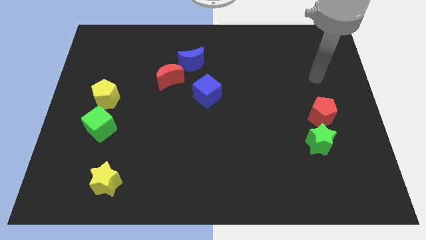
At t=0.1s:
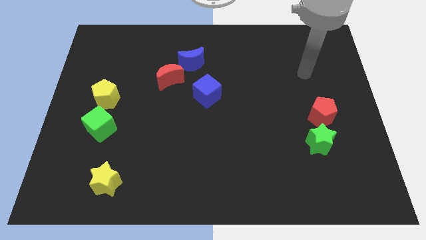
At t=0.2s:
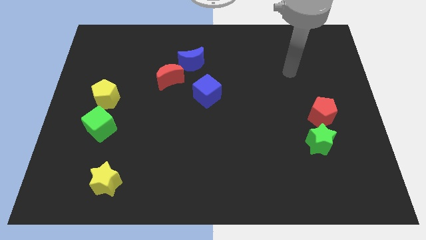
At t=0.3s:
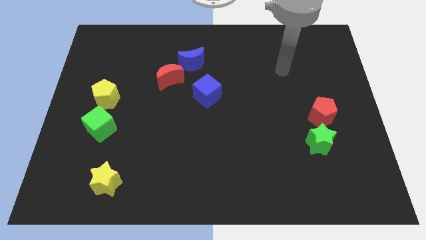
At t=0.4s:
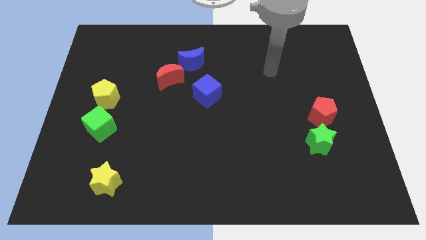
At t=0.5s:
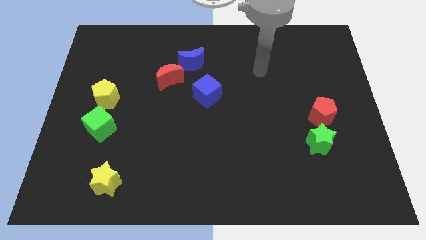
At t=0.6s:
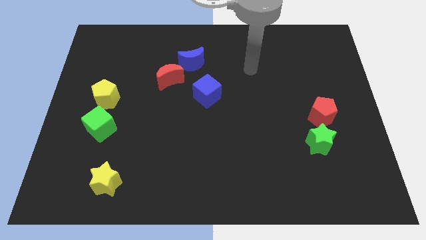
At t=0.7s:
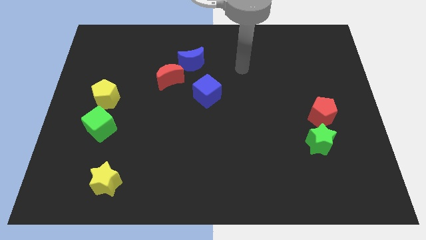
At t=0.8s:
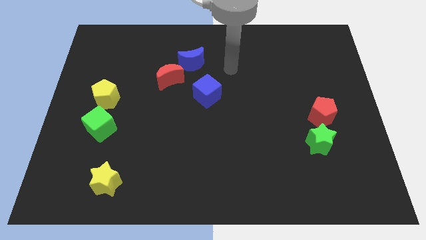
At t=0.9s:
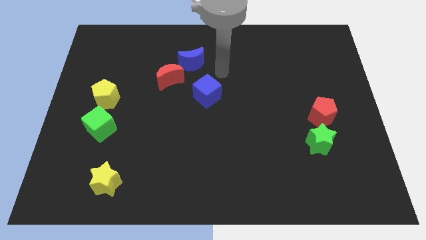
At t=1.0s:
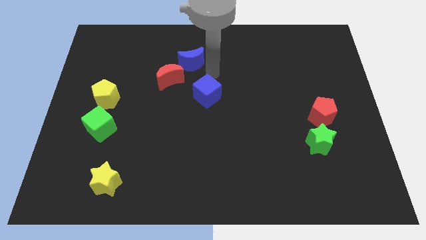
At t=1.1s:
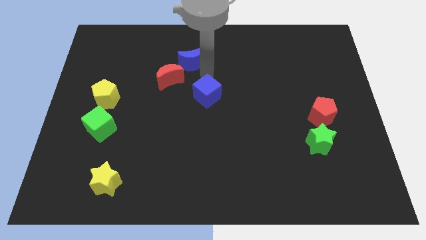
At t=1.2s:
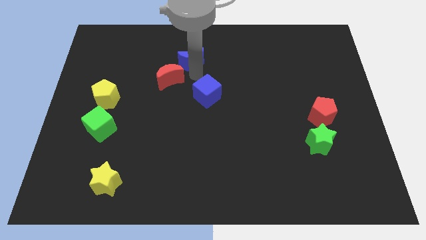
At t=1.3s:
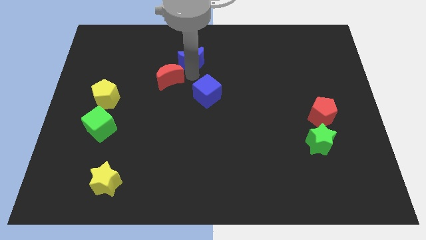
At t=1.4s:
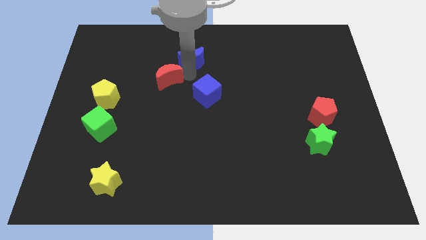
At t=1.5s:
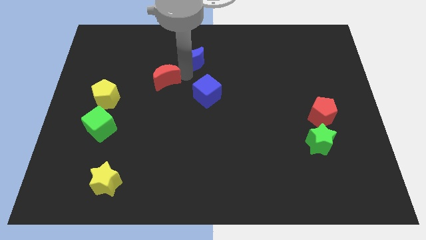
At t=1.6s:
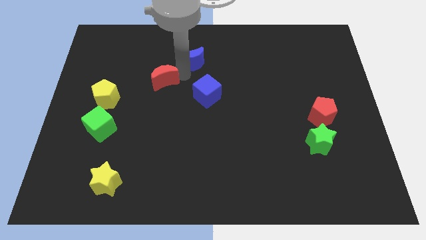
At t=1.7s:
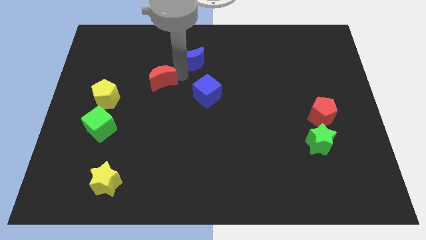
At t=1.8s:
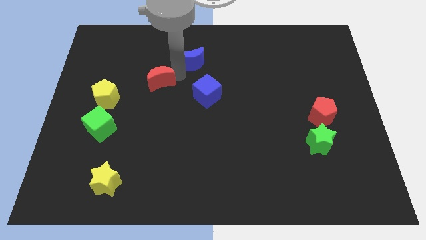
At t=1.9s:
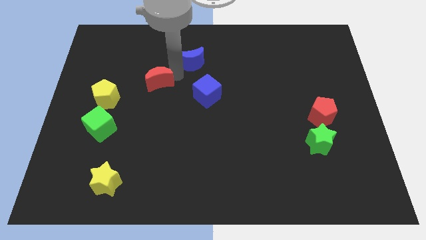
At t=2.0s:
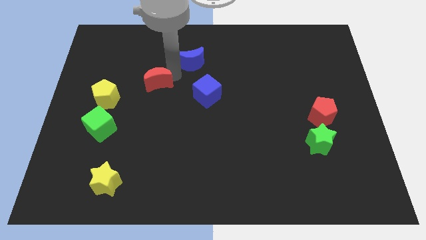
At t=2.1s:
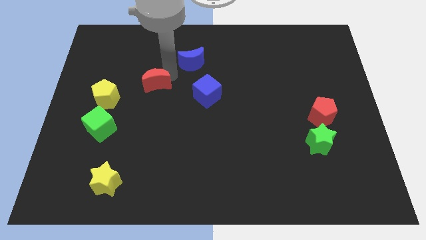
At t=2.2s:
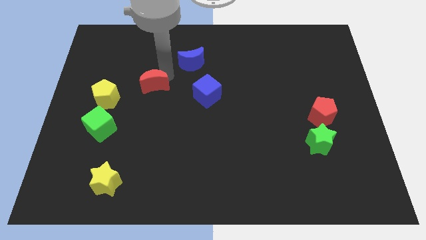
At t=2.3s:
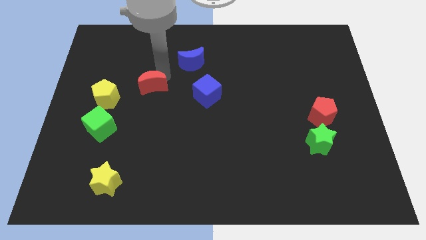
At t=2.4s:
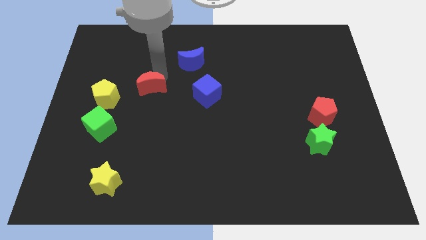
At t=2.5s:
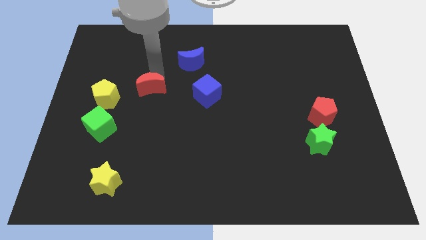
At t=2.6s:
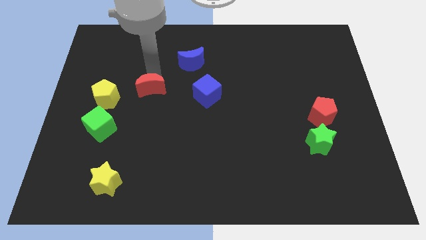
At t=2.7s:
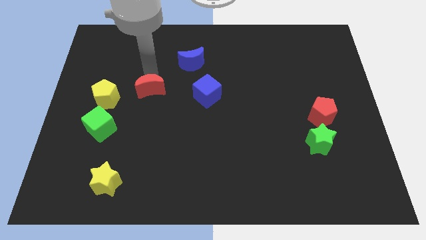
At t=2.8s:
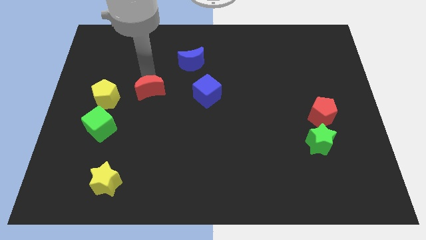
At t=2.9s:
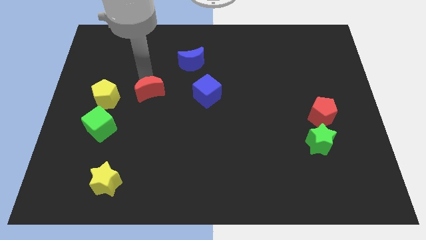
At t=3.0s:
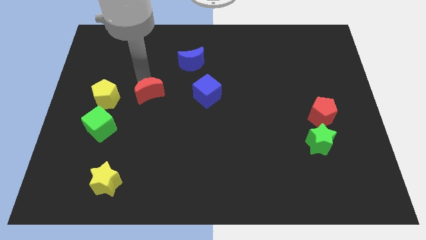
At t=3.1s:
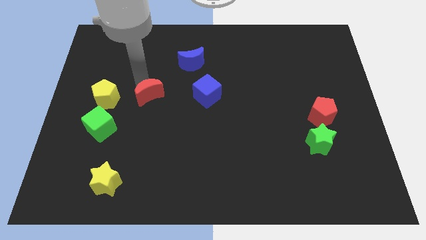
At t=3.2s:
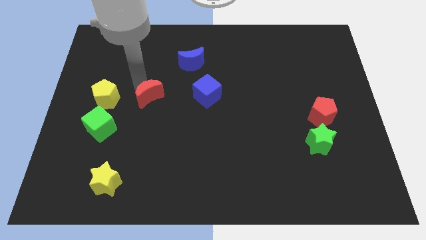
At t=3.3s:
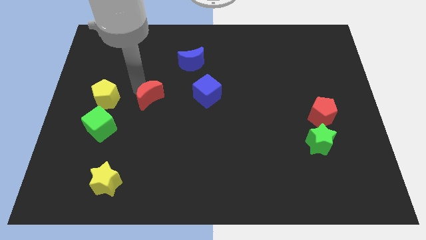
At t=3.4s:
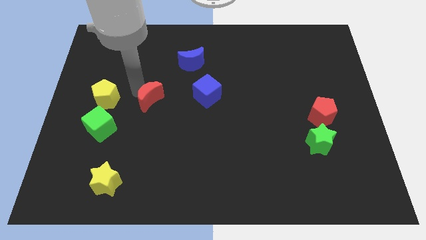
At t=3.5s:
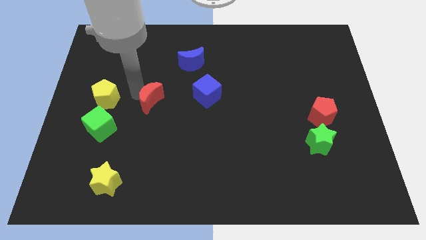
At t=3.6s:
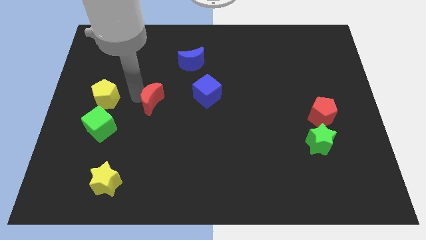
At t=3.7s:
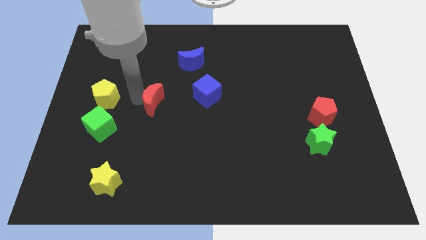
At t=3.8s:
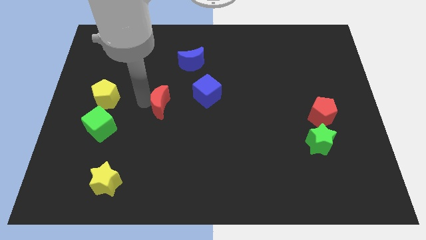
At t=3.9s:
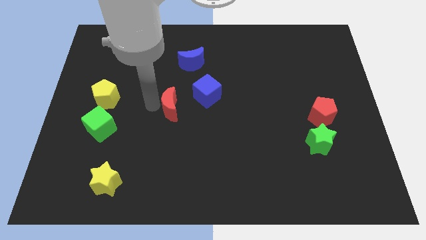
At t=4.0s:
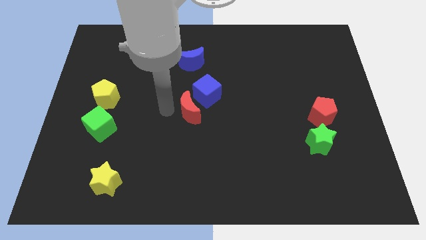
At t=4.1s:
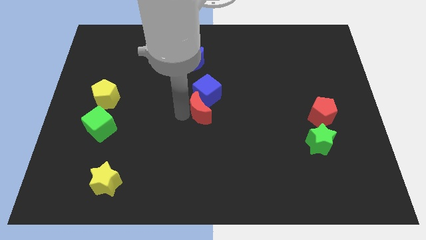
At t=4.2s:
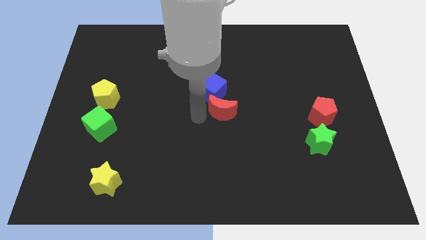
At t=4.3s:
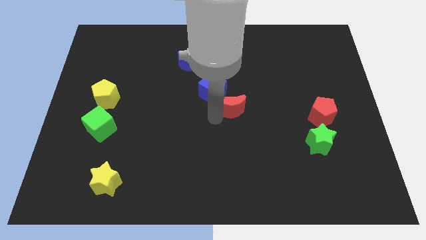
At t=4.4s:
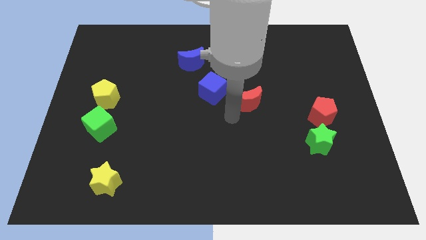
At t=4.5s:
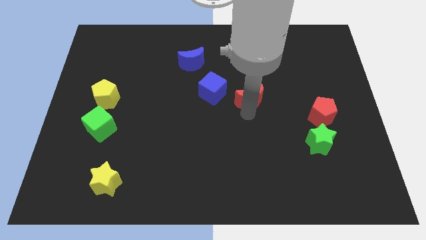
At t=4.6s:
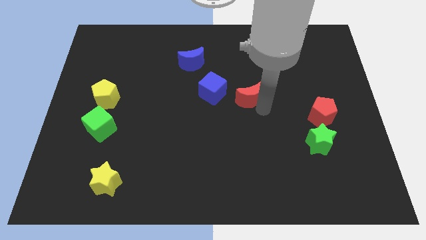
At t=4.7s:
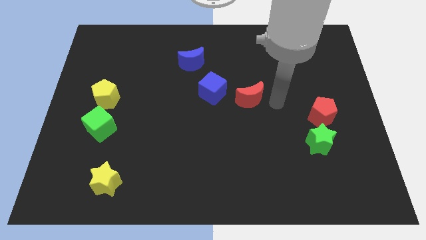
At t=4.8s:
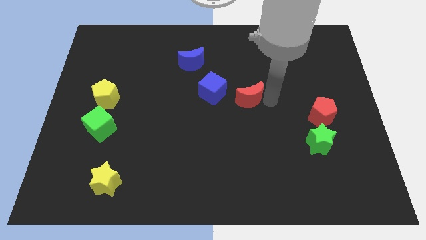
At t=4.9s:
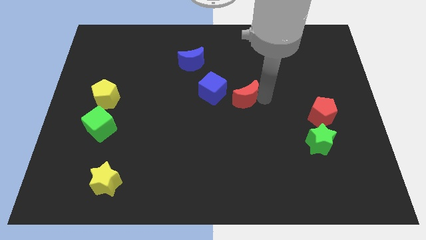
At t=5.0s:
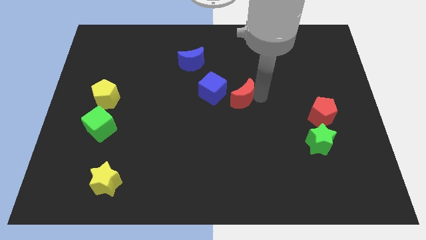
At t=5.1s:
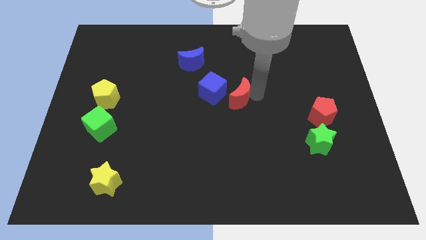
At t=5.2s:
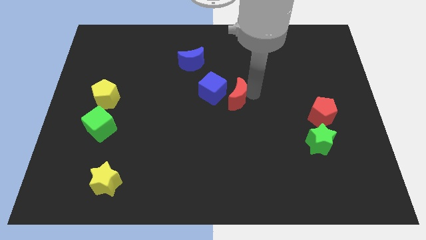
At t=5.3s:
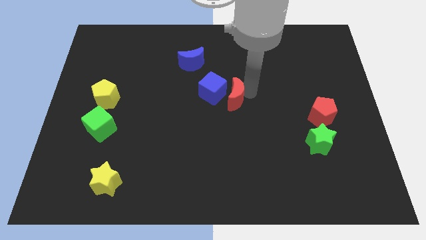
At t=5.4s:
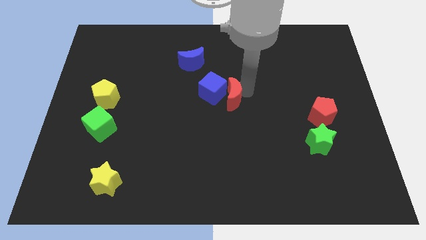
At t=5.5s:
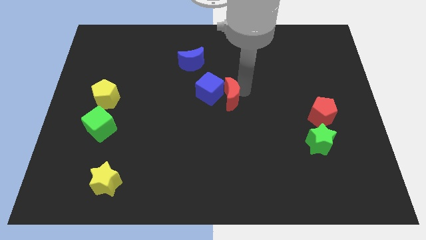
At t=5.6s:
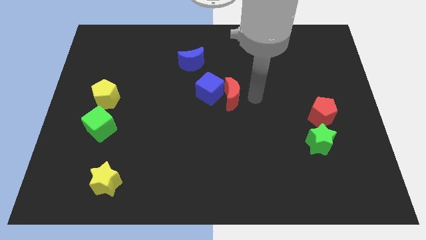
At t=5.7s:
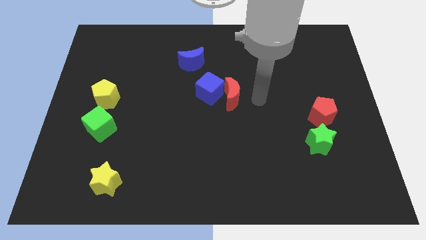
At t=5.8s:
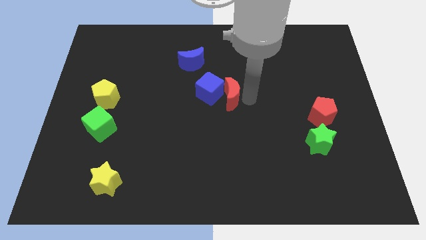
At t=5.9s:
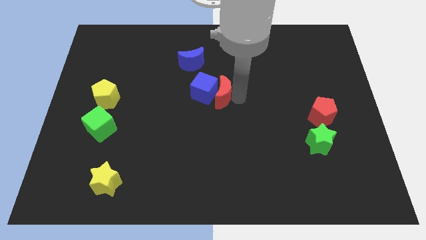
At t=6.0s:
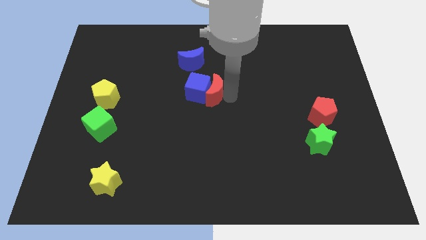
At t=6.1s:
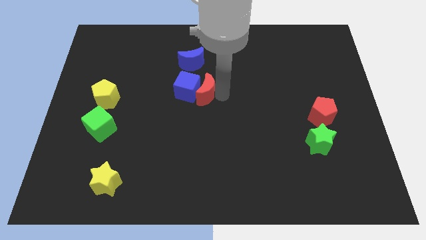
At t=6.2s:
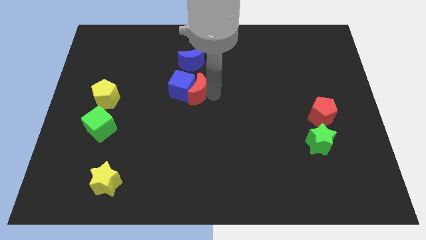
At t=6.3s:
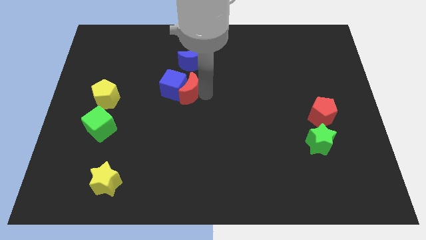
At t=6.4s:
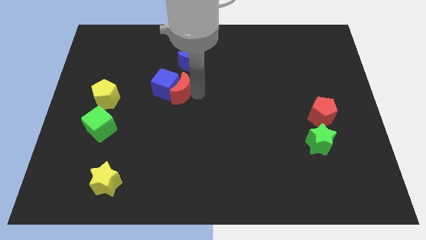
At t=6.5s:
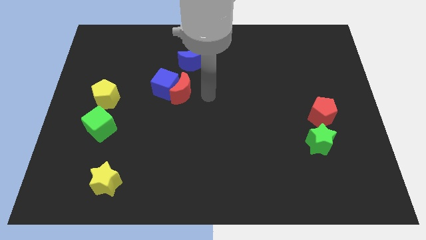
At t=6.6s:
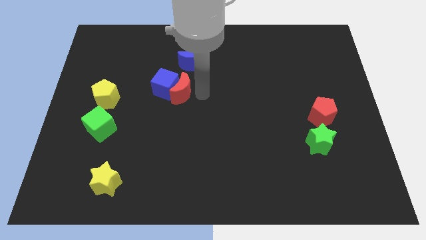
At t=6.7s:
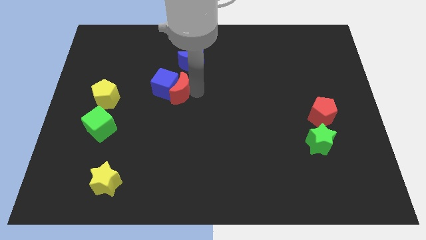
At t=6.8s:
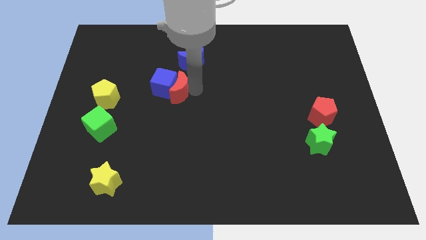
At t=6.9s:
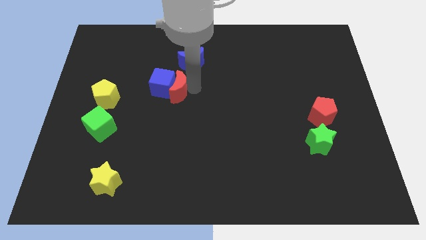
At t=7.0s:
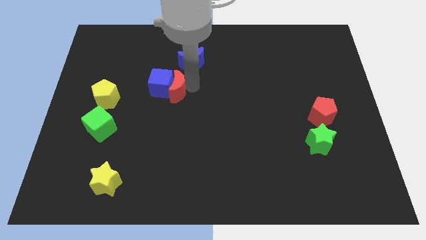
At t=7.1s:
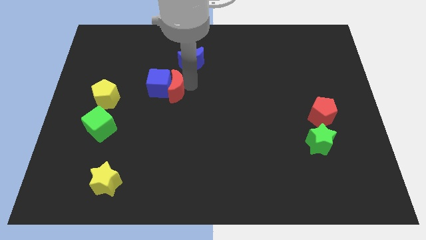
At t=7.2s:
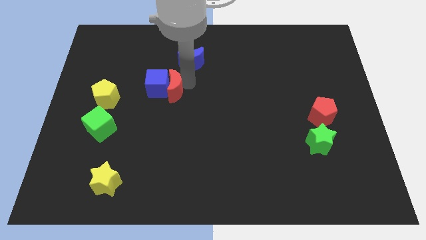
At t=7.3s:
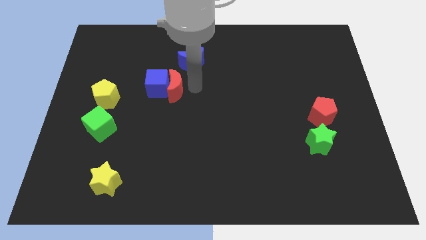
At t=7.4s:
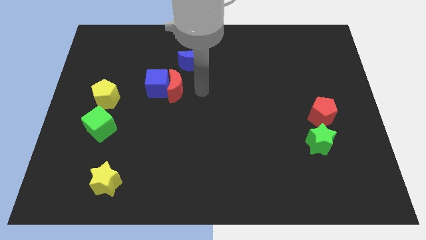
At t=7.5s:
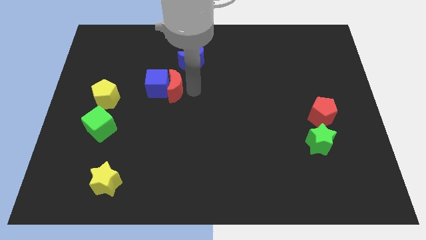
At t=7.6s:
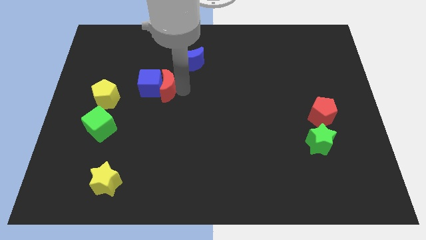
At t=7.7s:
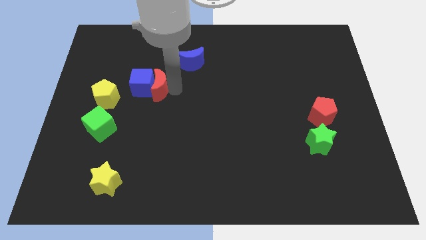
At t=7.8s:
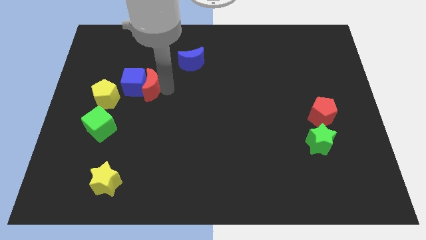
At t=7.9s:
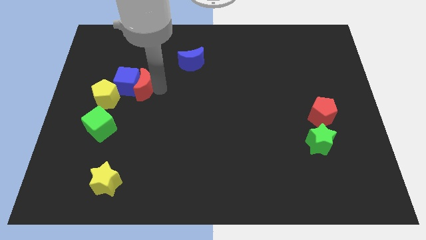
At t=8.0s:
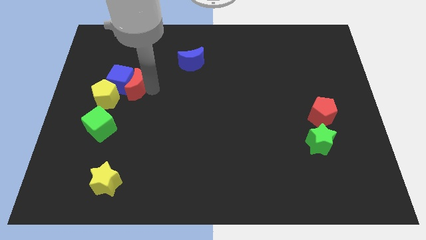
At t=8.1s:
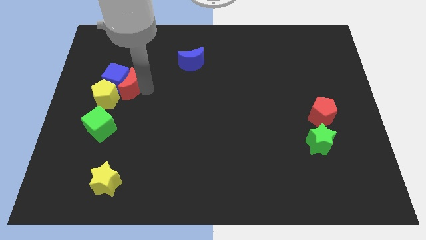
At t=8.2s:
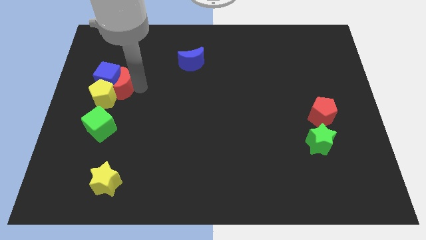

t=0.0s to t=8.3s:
put the red moon towards the yellow pentagon
